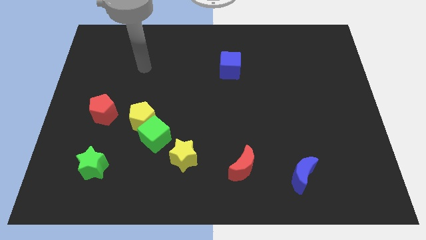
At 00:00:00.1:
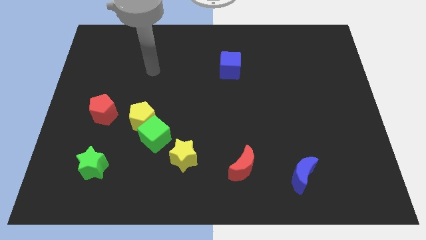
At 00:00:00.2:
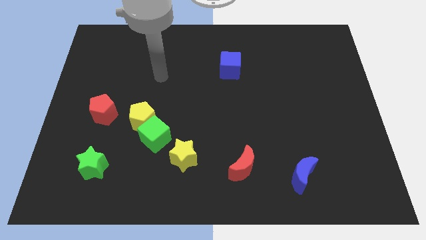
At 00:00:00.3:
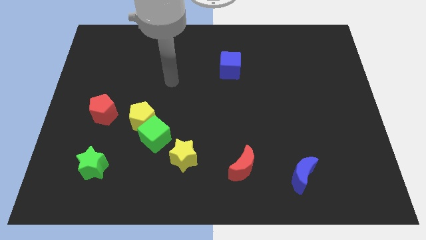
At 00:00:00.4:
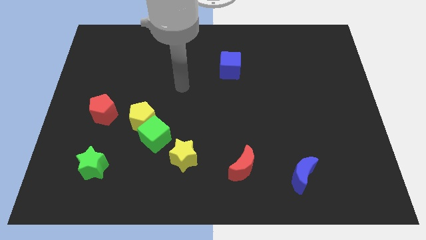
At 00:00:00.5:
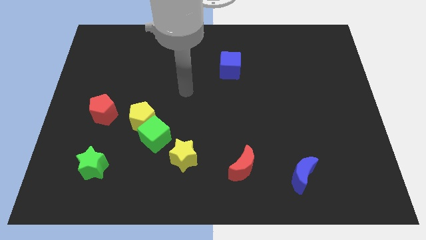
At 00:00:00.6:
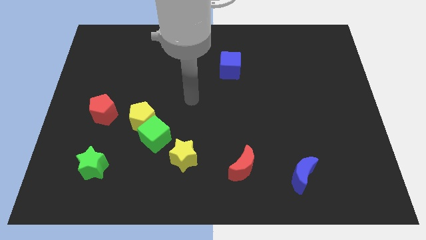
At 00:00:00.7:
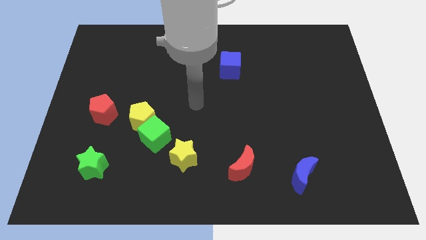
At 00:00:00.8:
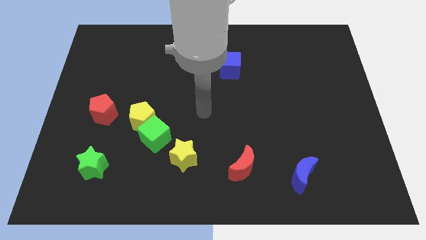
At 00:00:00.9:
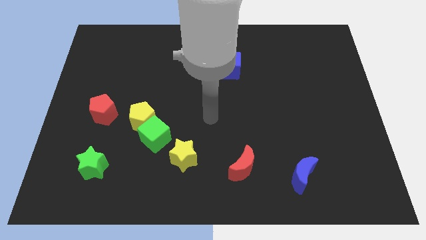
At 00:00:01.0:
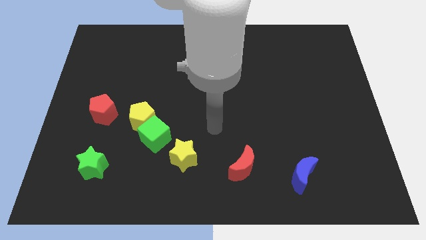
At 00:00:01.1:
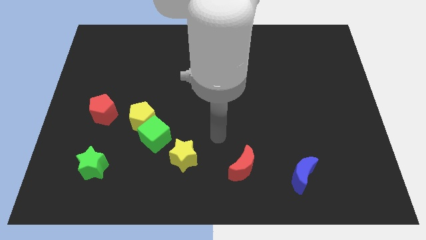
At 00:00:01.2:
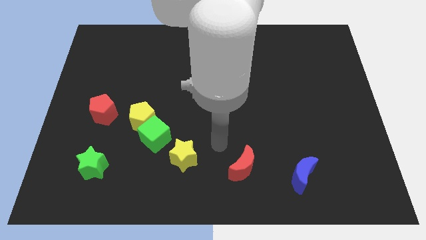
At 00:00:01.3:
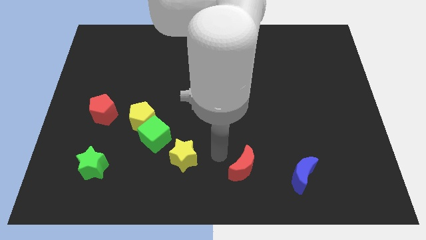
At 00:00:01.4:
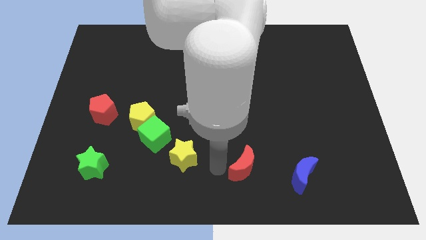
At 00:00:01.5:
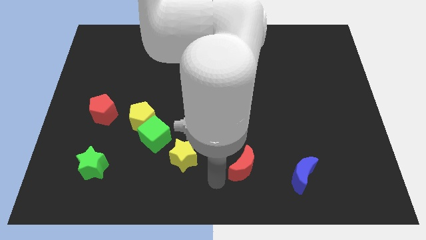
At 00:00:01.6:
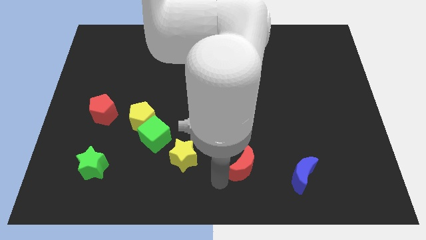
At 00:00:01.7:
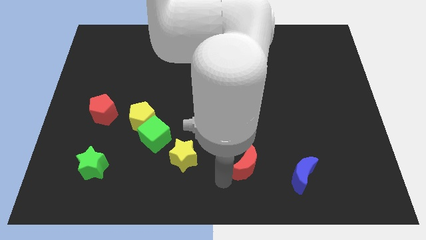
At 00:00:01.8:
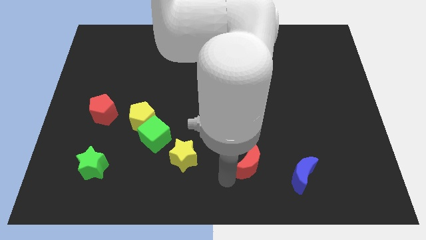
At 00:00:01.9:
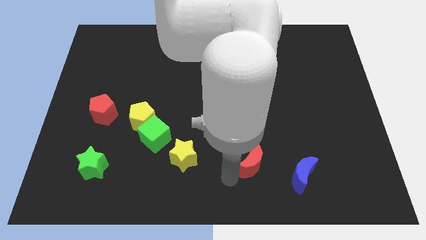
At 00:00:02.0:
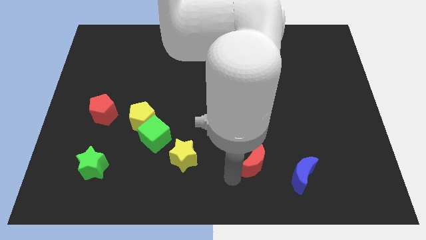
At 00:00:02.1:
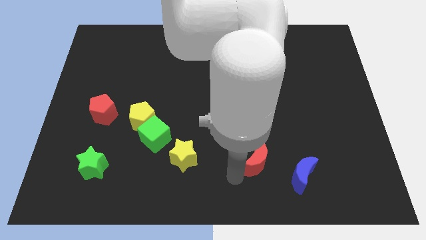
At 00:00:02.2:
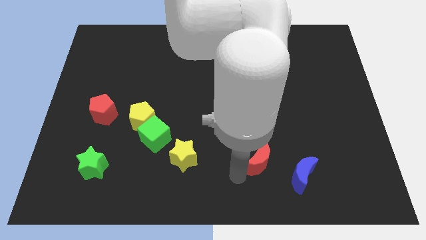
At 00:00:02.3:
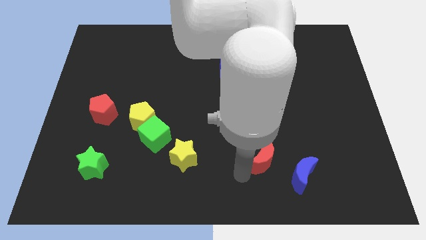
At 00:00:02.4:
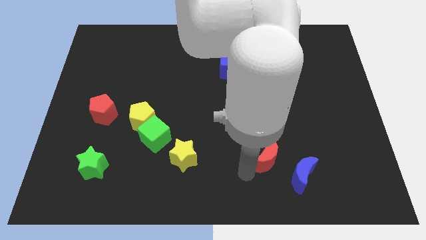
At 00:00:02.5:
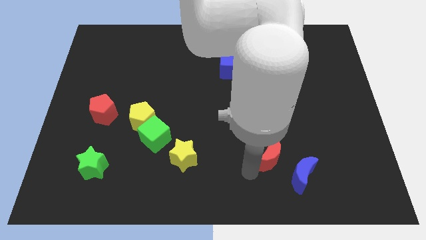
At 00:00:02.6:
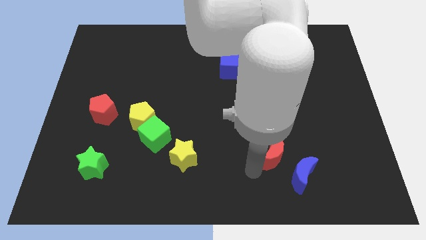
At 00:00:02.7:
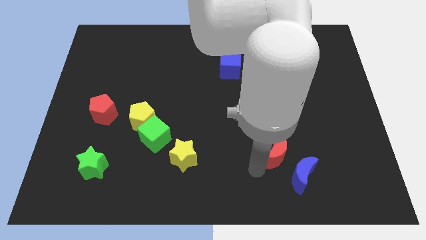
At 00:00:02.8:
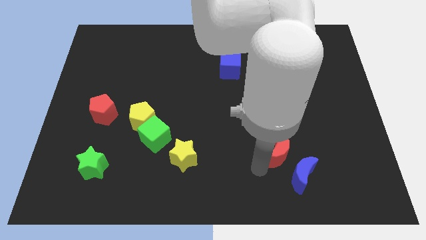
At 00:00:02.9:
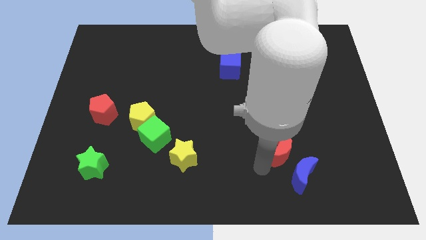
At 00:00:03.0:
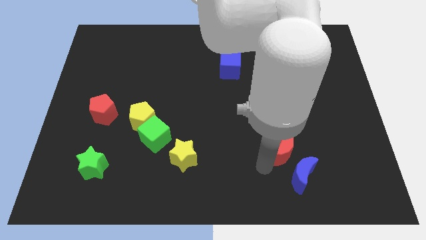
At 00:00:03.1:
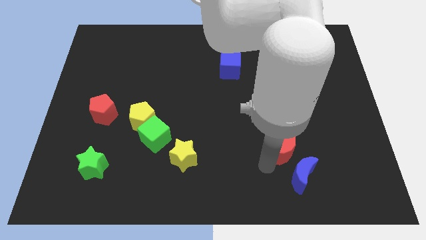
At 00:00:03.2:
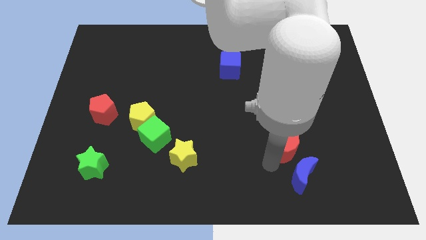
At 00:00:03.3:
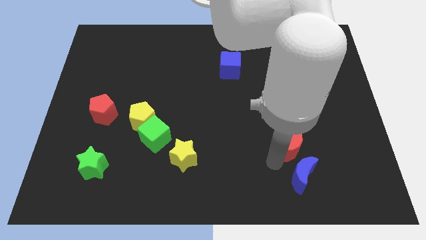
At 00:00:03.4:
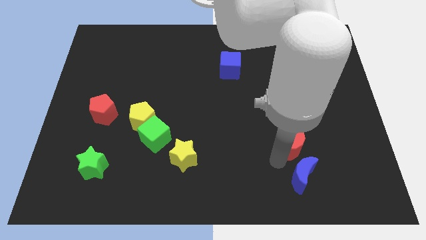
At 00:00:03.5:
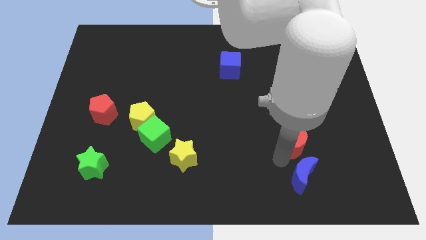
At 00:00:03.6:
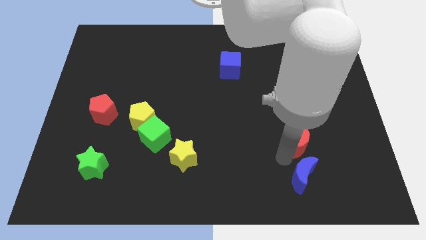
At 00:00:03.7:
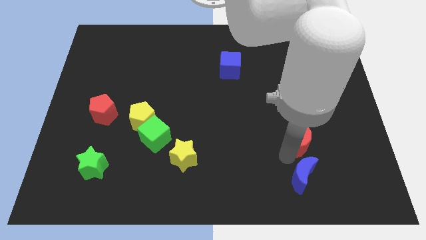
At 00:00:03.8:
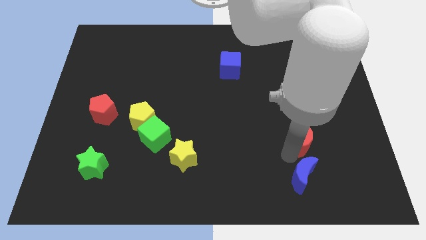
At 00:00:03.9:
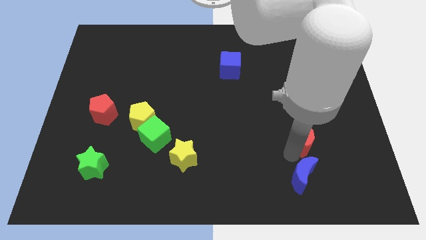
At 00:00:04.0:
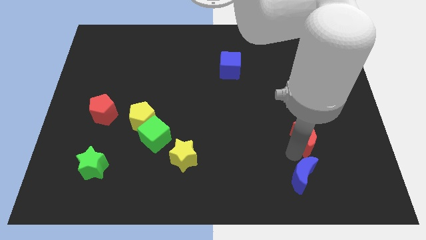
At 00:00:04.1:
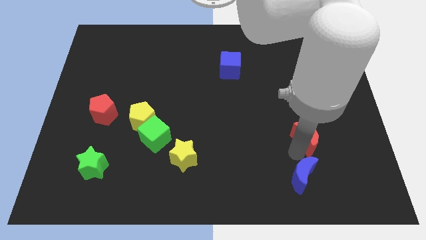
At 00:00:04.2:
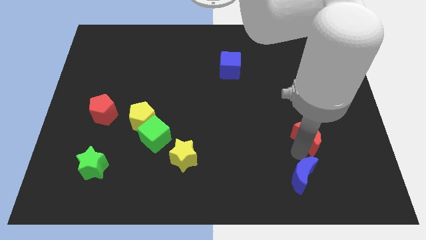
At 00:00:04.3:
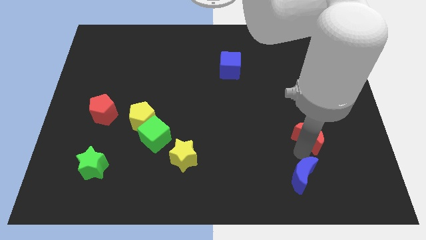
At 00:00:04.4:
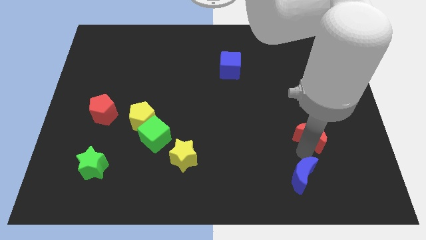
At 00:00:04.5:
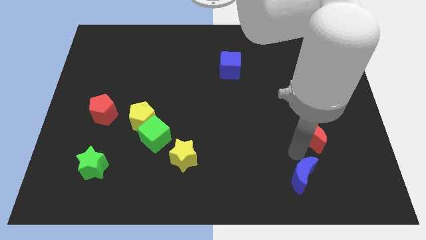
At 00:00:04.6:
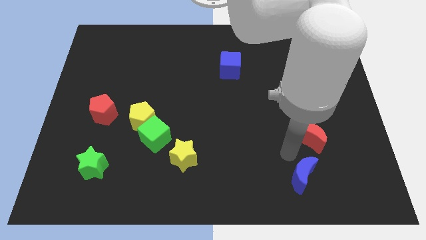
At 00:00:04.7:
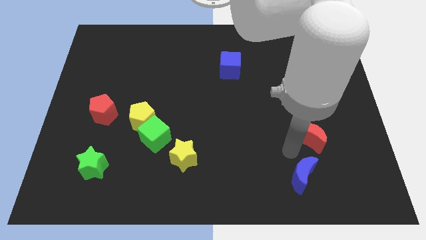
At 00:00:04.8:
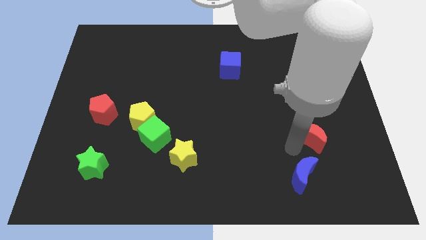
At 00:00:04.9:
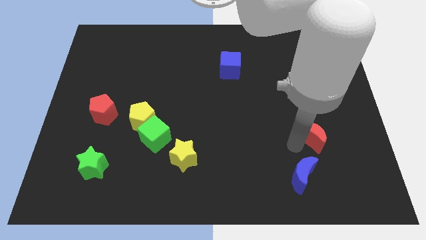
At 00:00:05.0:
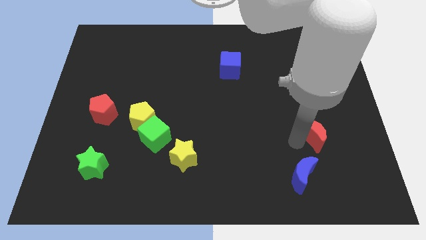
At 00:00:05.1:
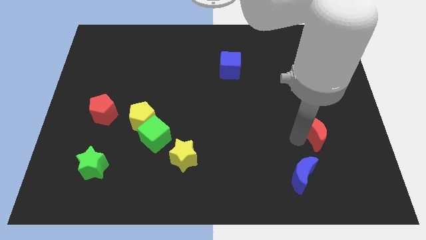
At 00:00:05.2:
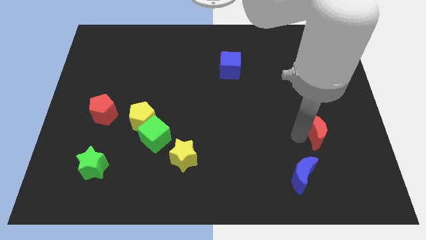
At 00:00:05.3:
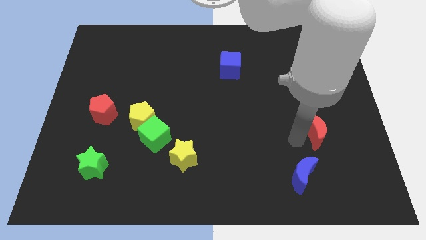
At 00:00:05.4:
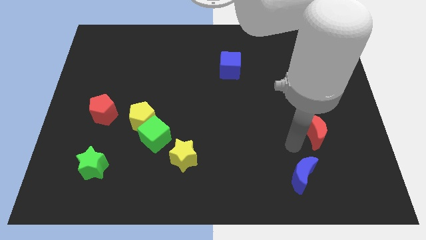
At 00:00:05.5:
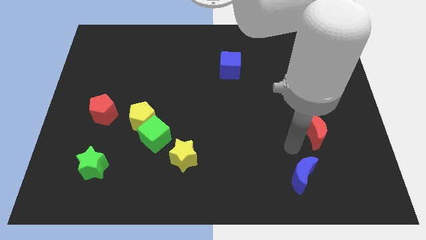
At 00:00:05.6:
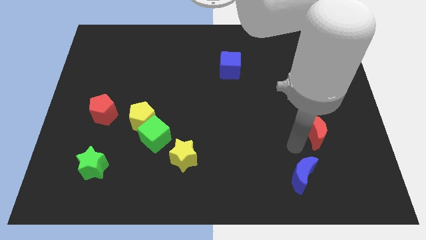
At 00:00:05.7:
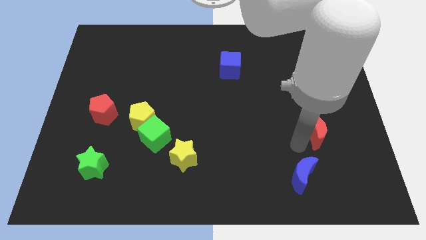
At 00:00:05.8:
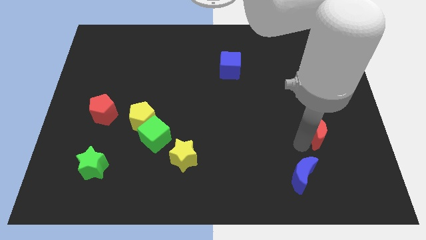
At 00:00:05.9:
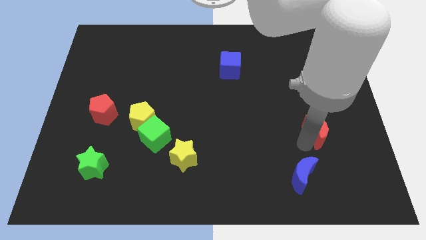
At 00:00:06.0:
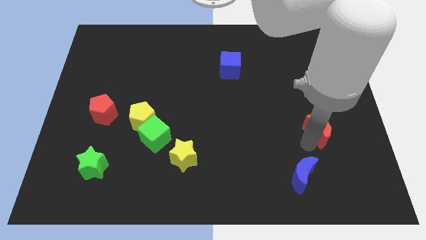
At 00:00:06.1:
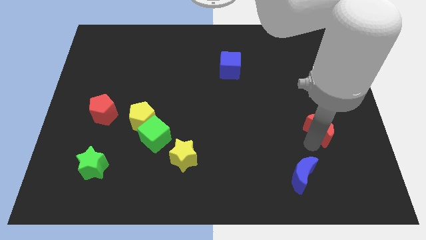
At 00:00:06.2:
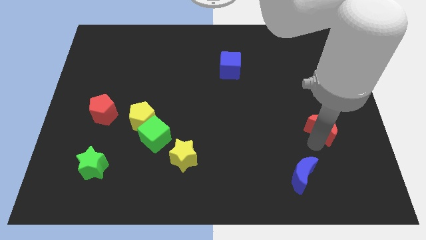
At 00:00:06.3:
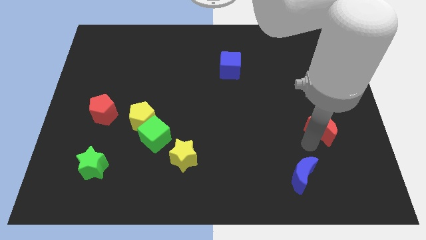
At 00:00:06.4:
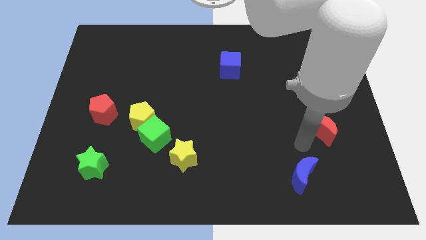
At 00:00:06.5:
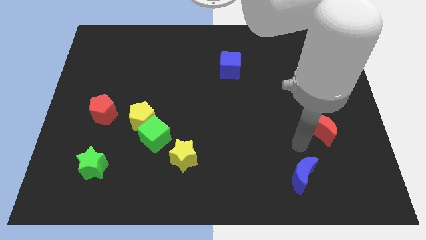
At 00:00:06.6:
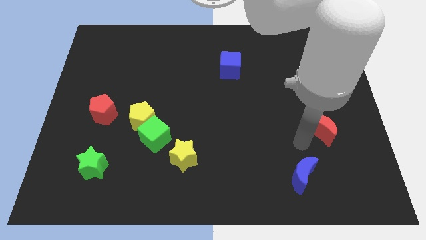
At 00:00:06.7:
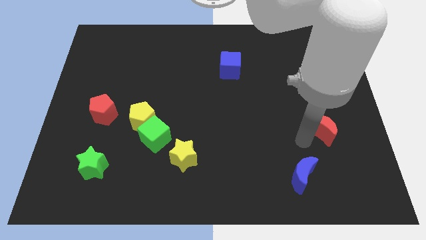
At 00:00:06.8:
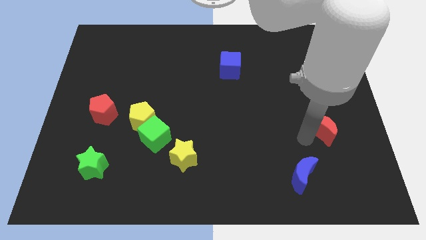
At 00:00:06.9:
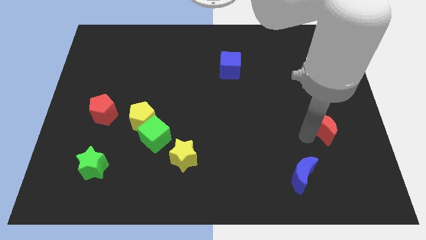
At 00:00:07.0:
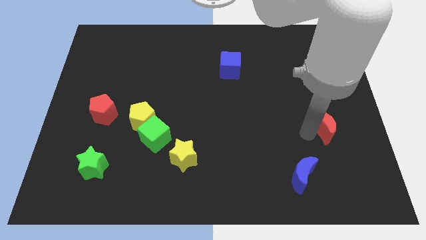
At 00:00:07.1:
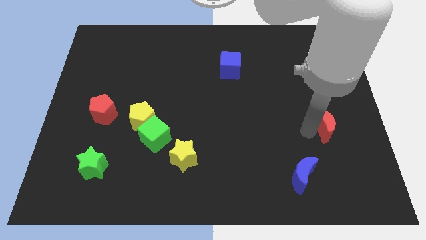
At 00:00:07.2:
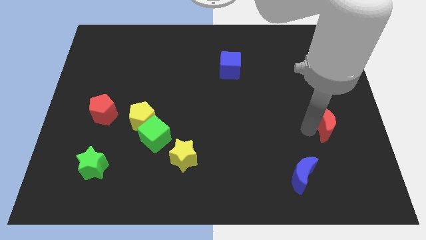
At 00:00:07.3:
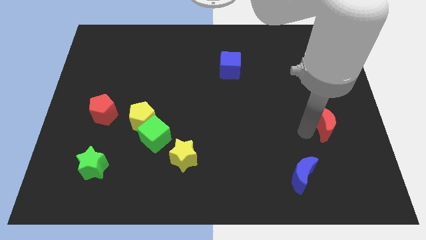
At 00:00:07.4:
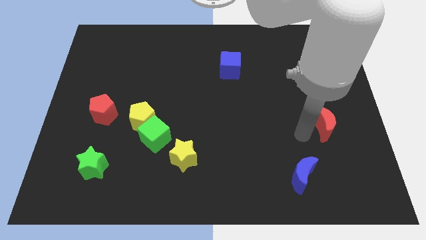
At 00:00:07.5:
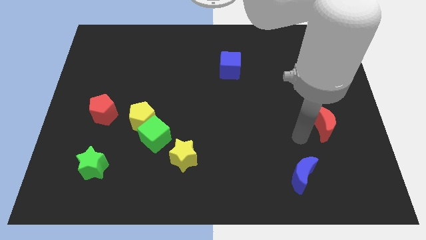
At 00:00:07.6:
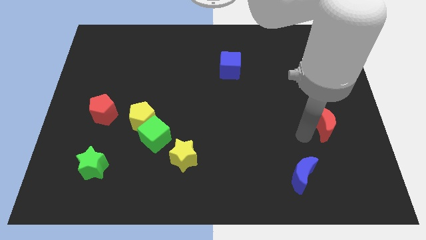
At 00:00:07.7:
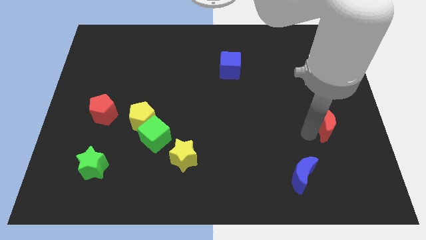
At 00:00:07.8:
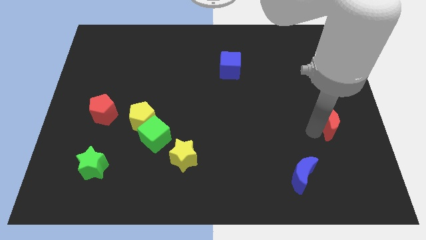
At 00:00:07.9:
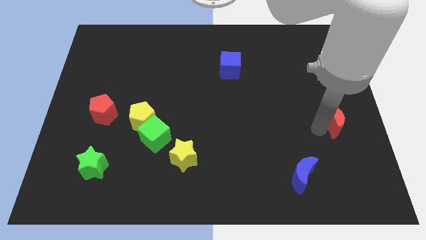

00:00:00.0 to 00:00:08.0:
put the red moon to the right side of the board
